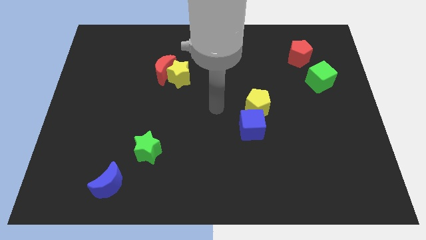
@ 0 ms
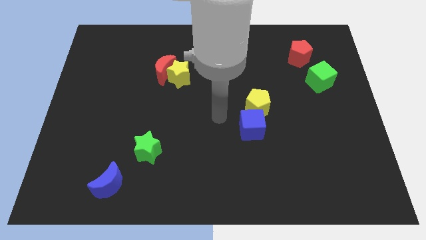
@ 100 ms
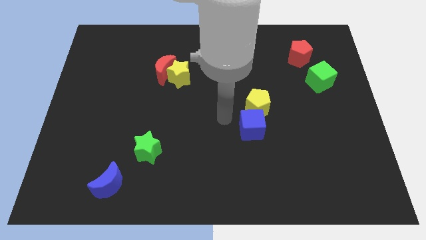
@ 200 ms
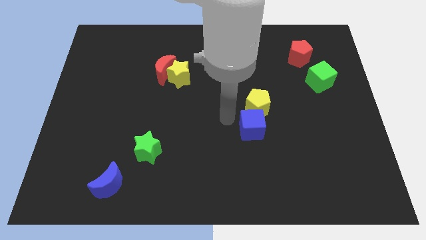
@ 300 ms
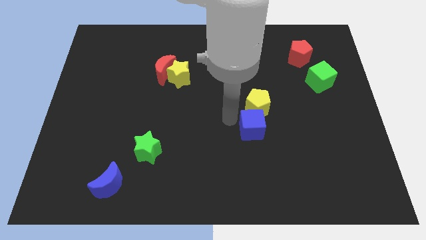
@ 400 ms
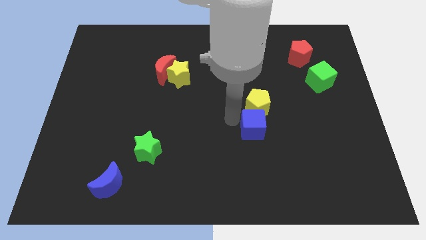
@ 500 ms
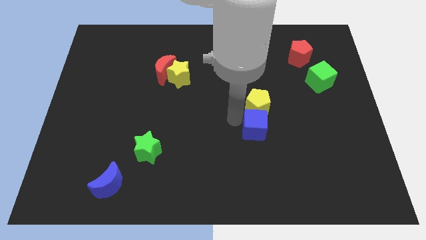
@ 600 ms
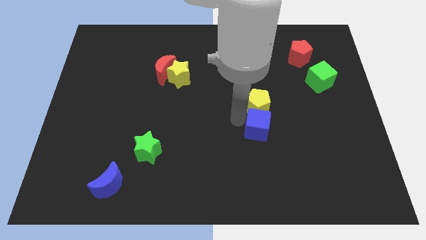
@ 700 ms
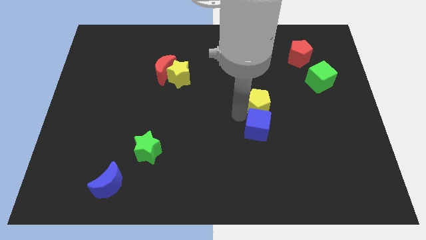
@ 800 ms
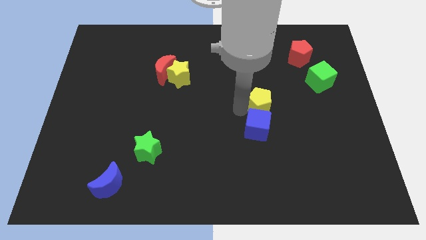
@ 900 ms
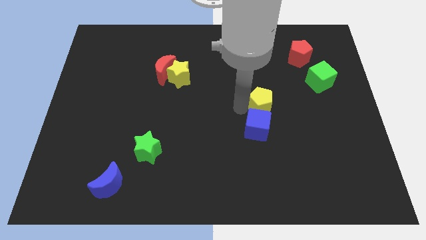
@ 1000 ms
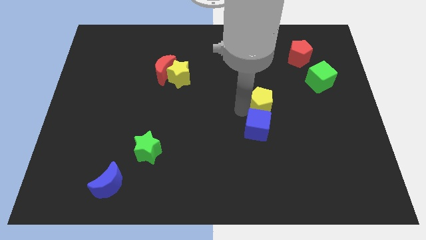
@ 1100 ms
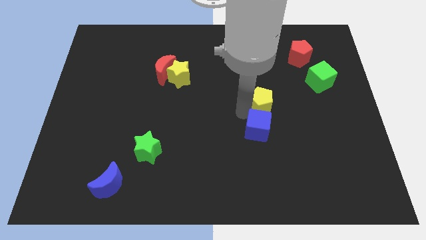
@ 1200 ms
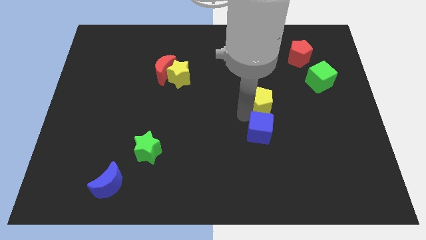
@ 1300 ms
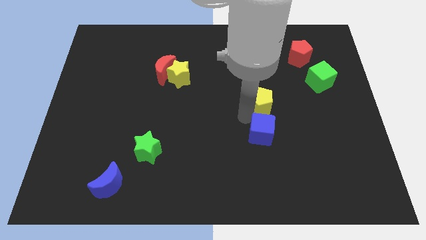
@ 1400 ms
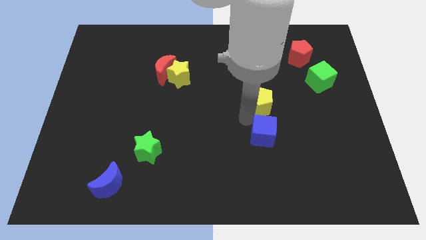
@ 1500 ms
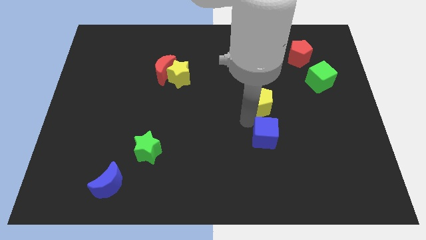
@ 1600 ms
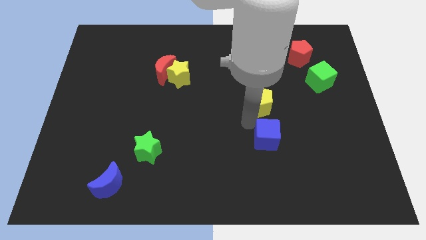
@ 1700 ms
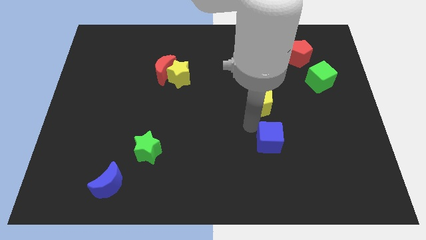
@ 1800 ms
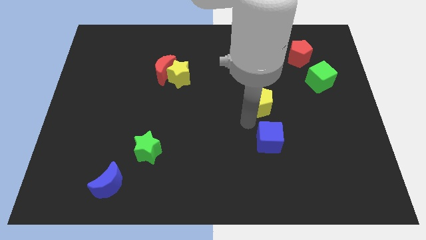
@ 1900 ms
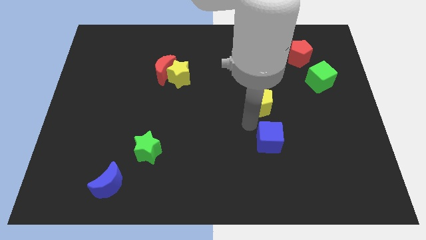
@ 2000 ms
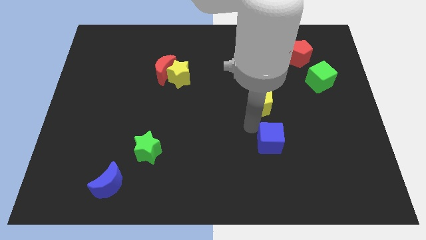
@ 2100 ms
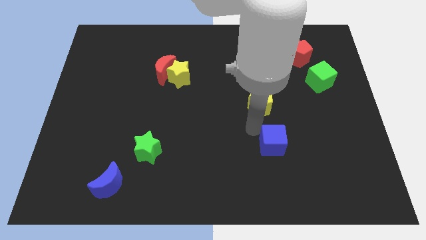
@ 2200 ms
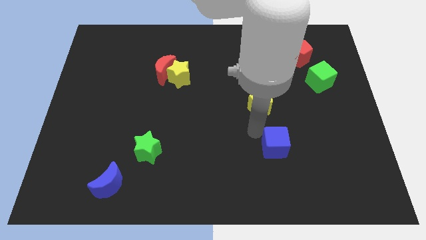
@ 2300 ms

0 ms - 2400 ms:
move the blue cube somewhat down and to the right diagonally

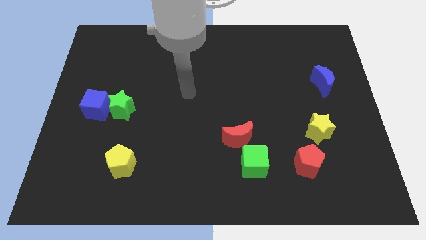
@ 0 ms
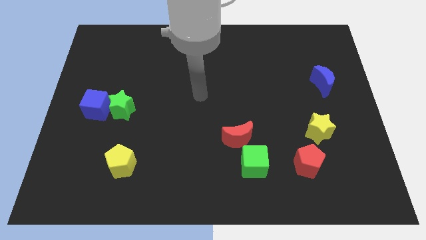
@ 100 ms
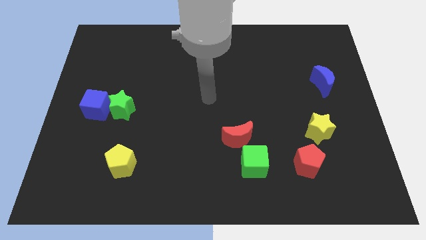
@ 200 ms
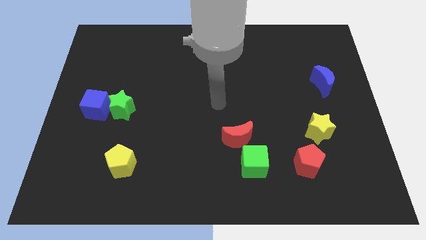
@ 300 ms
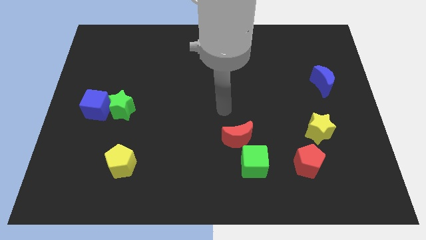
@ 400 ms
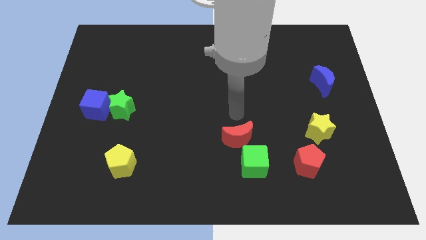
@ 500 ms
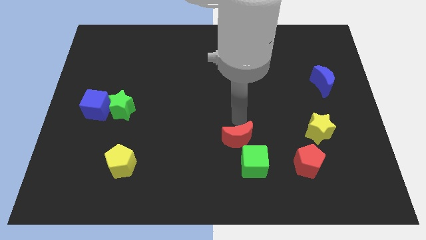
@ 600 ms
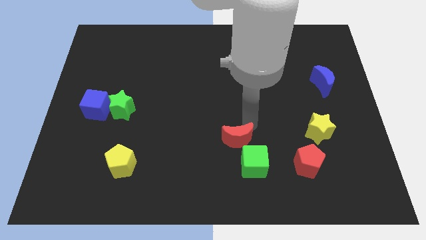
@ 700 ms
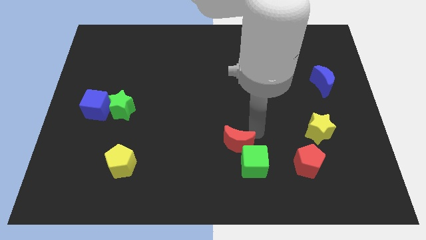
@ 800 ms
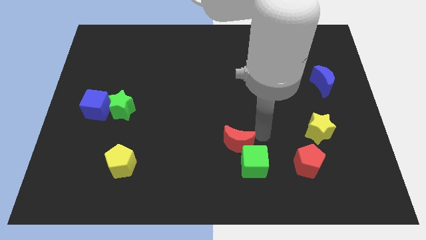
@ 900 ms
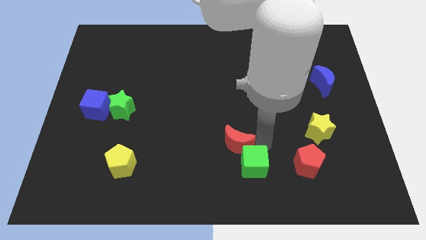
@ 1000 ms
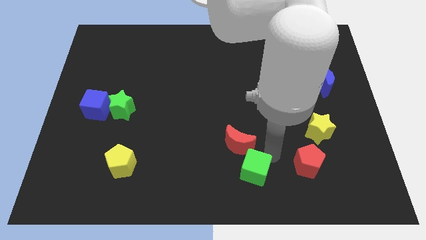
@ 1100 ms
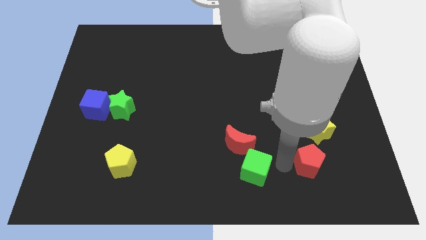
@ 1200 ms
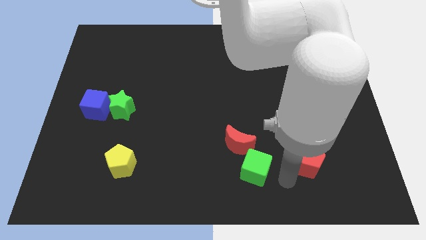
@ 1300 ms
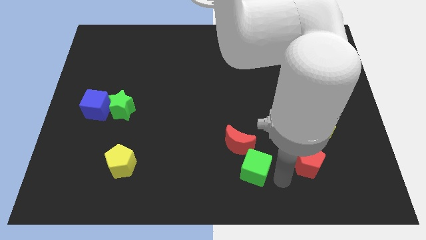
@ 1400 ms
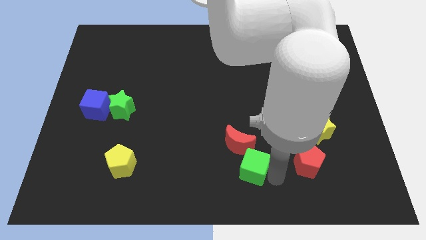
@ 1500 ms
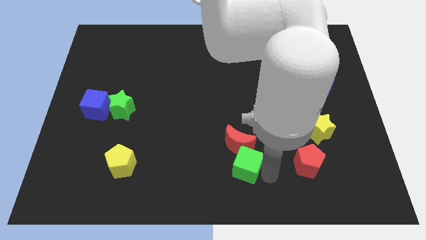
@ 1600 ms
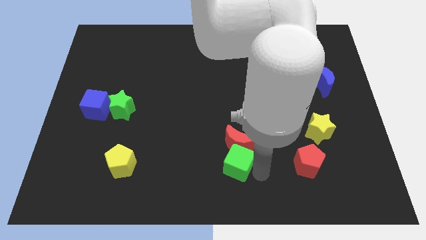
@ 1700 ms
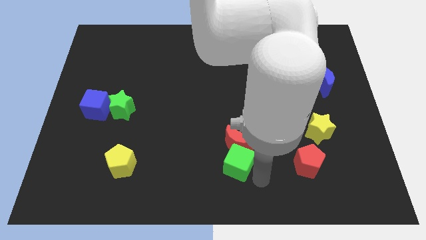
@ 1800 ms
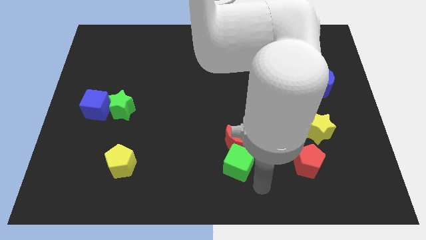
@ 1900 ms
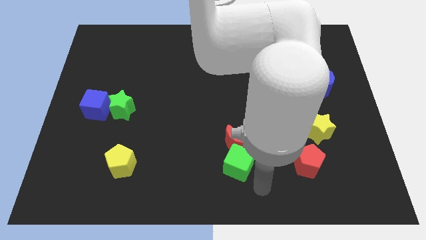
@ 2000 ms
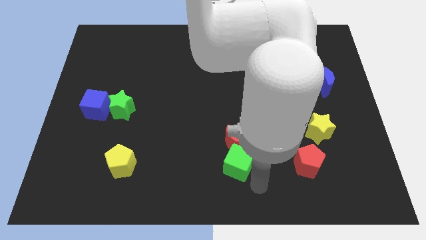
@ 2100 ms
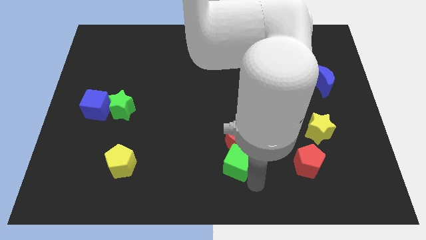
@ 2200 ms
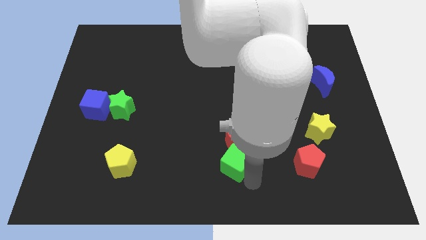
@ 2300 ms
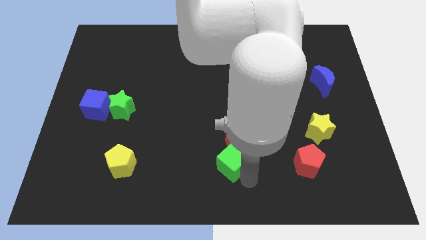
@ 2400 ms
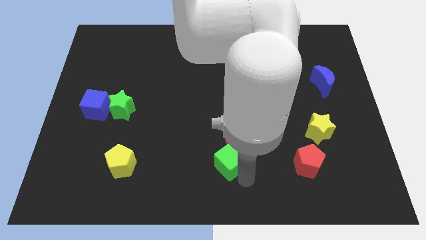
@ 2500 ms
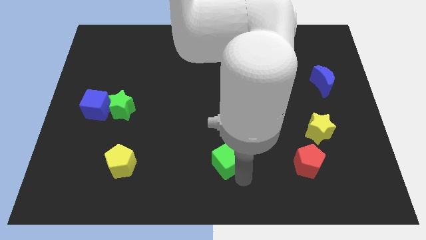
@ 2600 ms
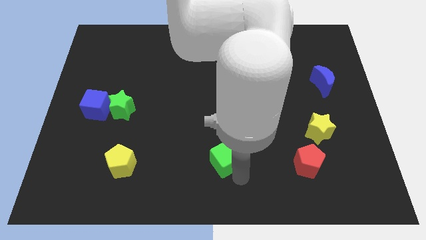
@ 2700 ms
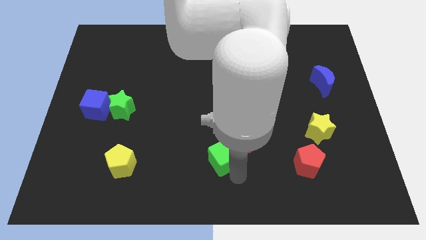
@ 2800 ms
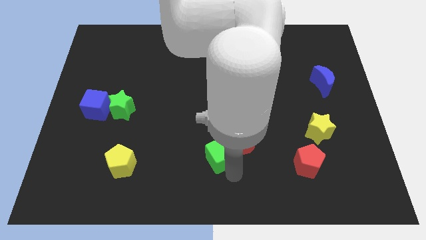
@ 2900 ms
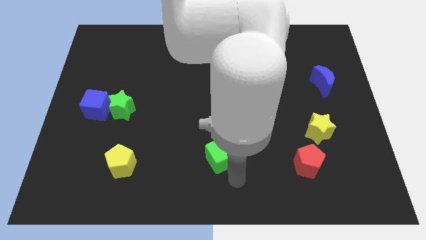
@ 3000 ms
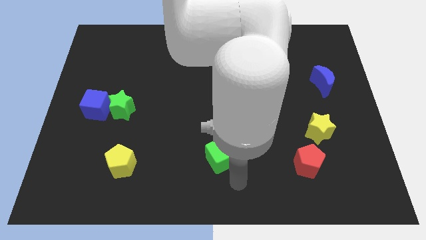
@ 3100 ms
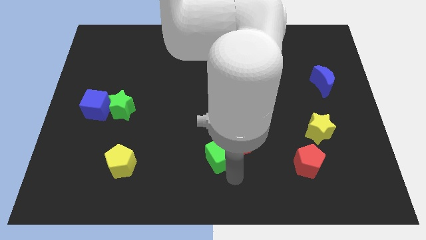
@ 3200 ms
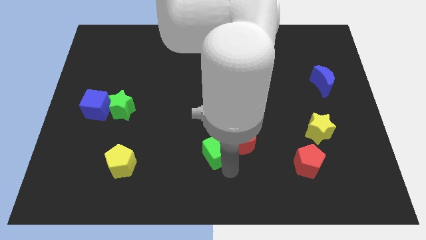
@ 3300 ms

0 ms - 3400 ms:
push the green cube upwards and to the left slightly

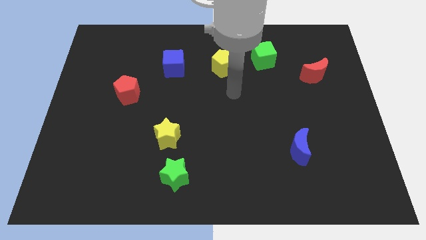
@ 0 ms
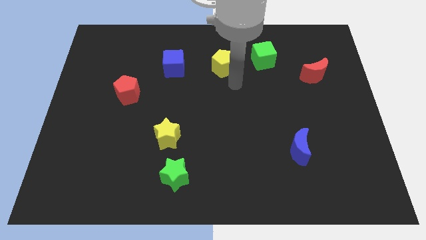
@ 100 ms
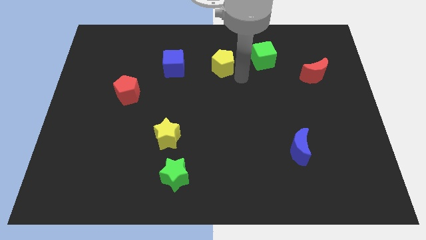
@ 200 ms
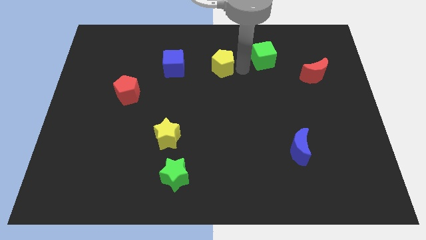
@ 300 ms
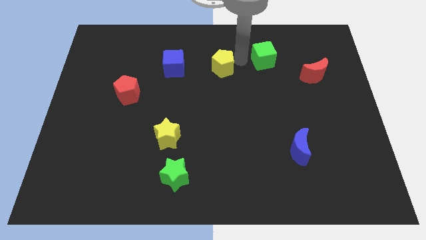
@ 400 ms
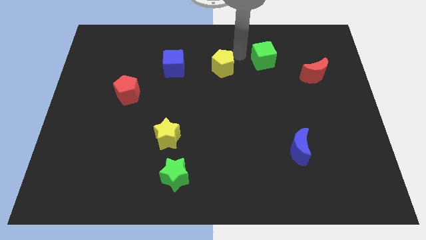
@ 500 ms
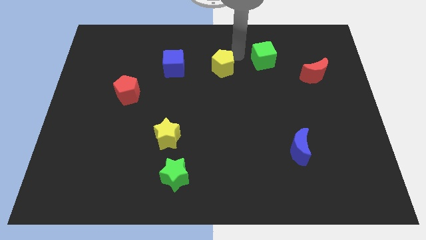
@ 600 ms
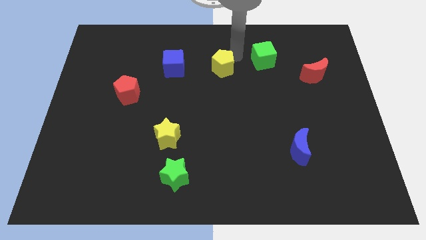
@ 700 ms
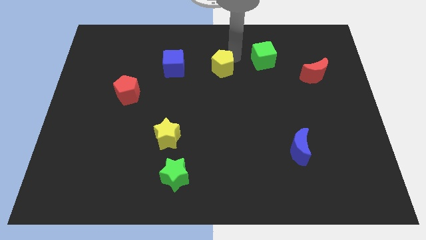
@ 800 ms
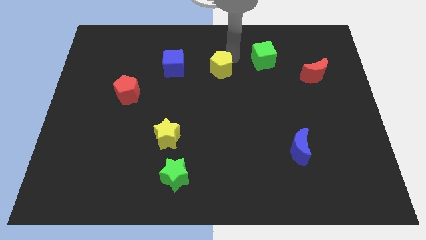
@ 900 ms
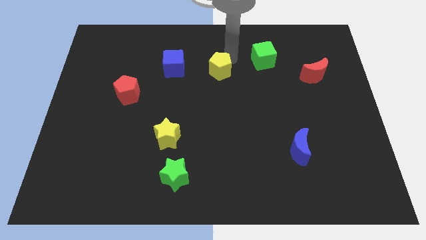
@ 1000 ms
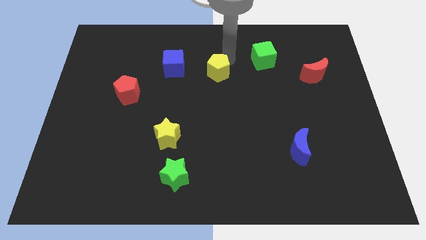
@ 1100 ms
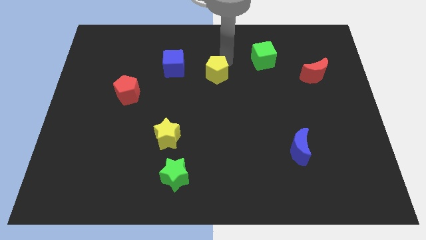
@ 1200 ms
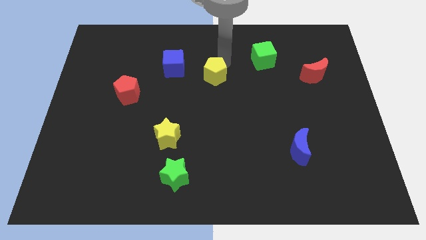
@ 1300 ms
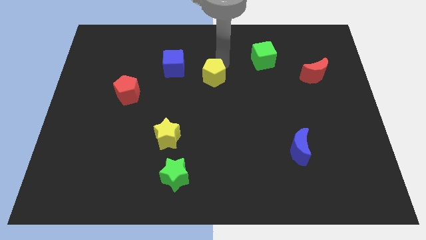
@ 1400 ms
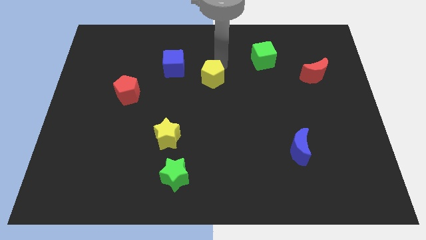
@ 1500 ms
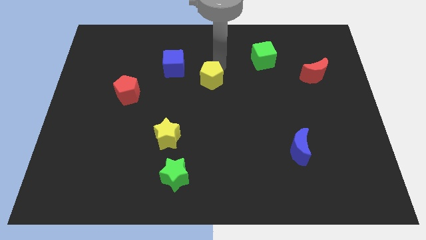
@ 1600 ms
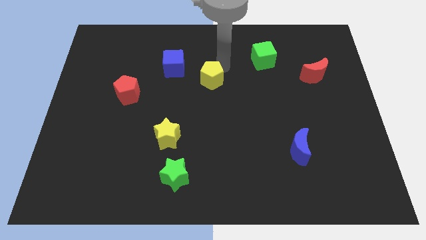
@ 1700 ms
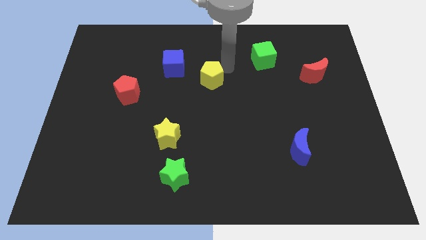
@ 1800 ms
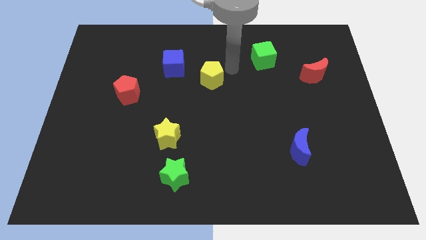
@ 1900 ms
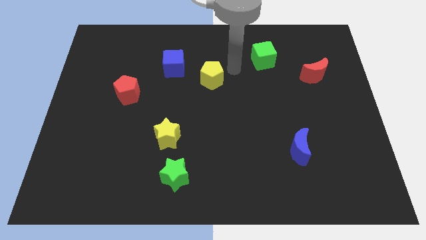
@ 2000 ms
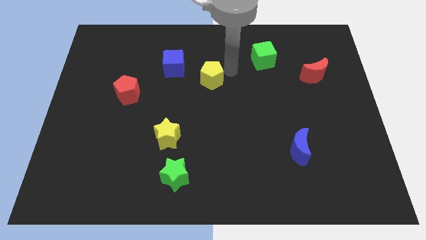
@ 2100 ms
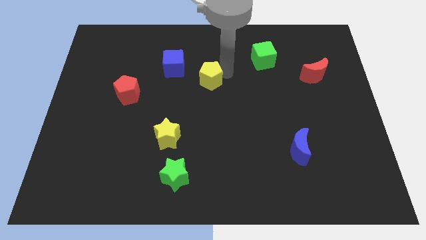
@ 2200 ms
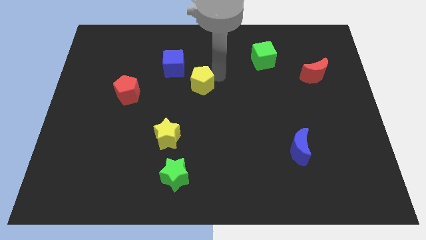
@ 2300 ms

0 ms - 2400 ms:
slightly push the yellow pentagon diagonally downwards and left
